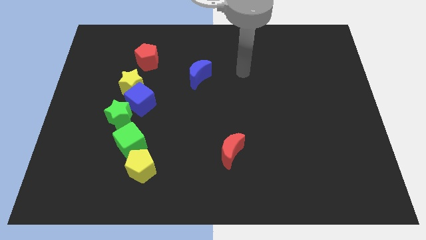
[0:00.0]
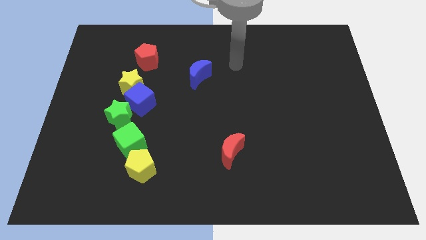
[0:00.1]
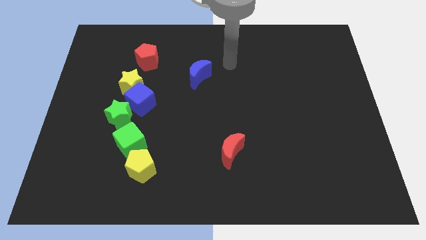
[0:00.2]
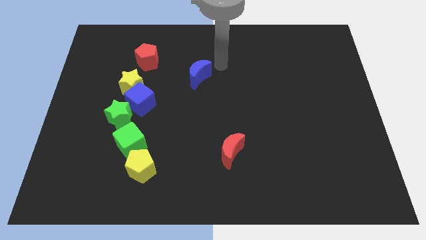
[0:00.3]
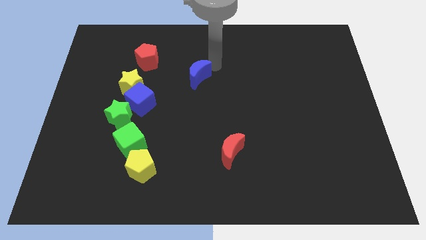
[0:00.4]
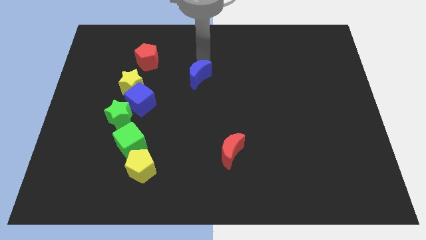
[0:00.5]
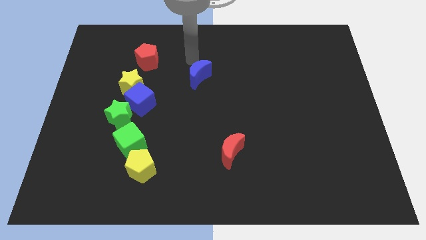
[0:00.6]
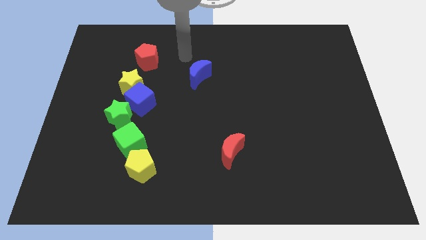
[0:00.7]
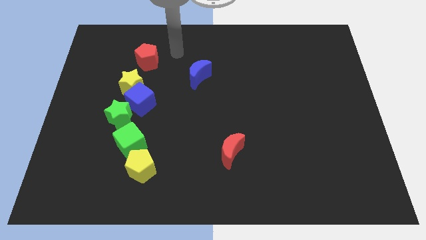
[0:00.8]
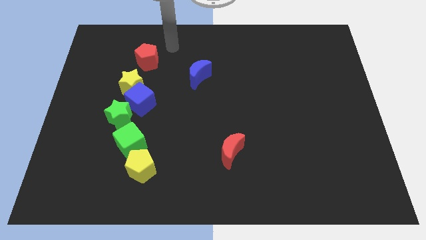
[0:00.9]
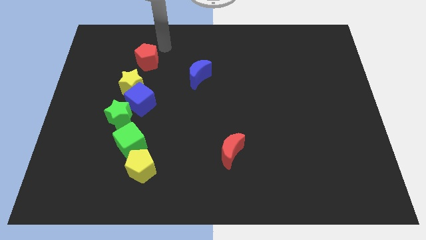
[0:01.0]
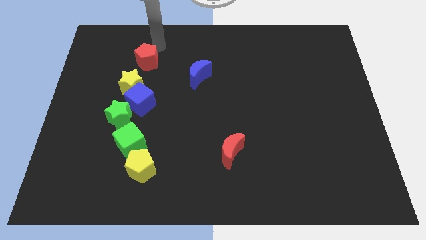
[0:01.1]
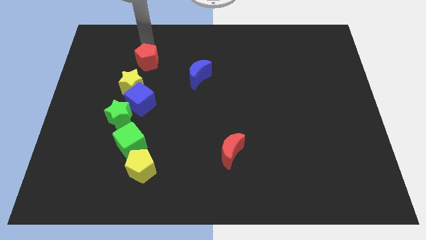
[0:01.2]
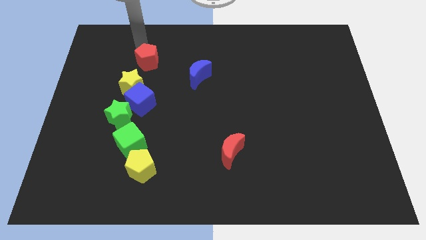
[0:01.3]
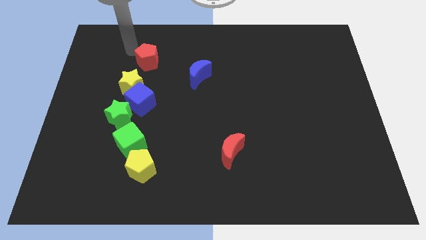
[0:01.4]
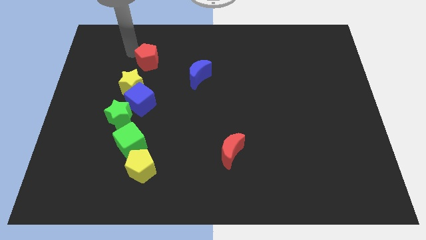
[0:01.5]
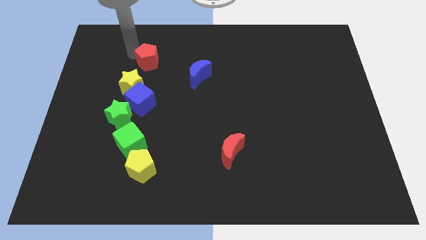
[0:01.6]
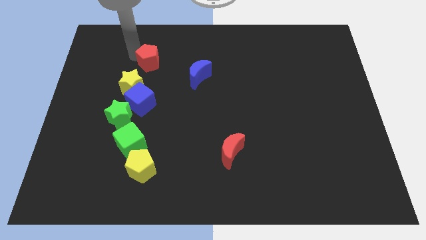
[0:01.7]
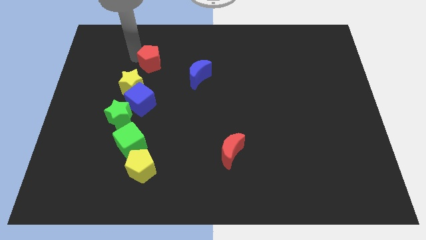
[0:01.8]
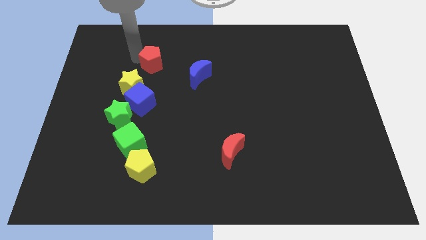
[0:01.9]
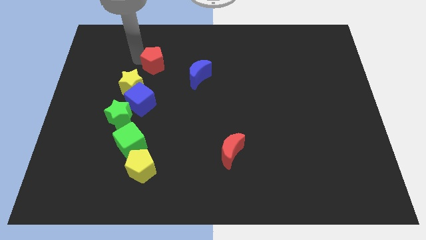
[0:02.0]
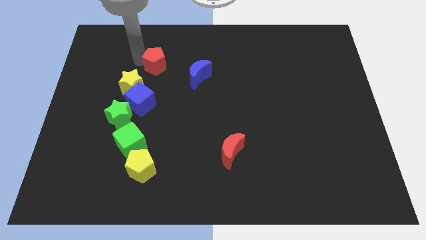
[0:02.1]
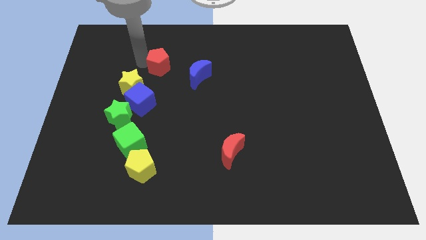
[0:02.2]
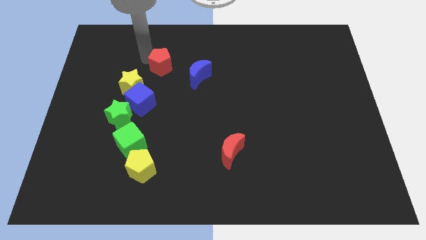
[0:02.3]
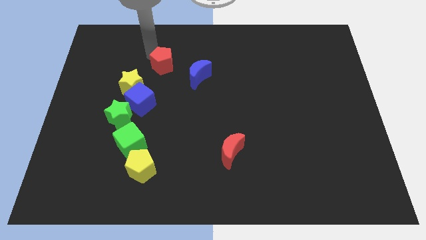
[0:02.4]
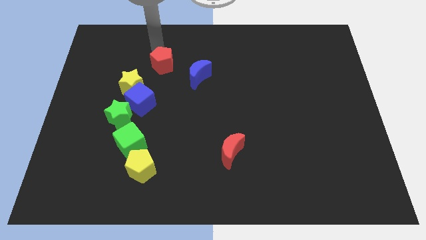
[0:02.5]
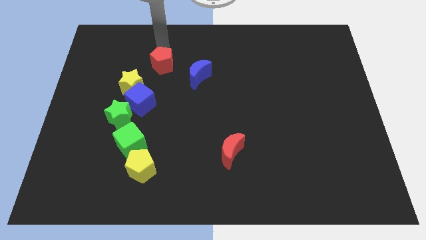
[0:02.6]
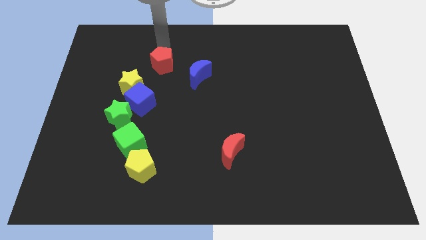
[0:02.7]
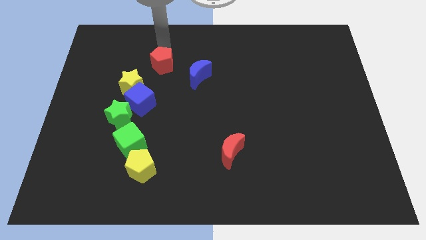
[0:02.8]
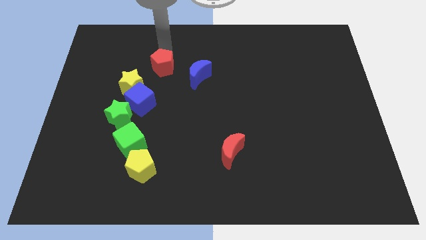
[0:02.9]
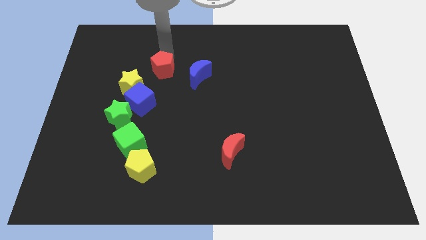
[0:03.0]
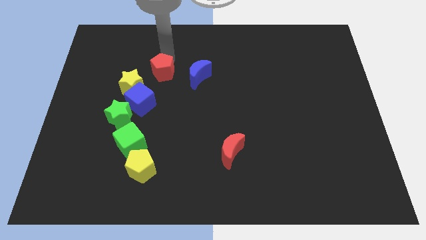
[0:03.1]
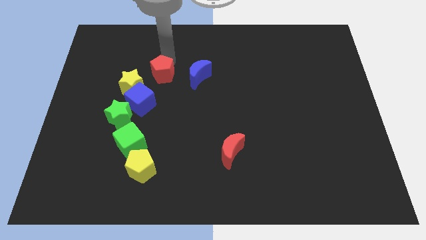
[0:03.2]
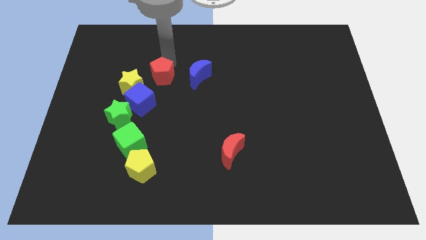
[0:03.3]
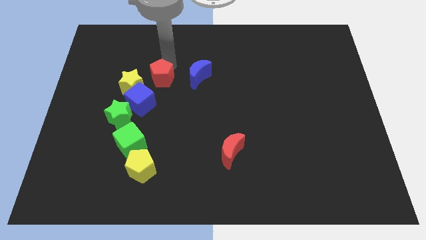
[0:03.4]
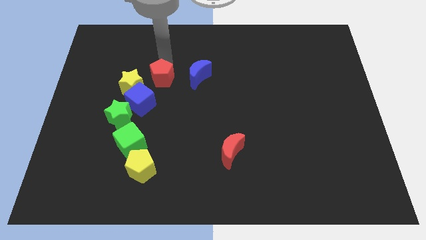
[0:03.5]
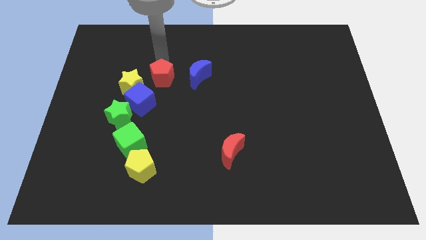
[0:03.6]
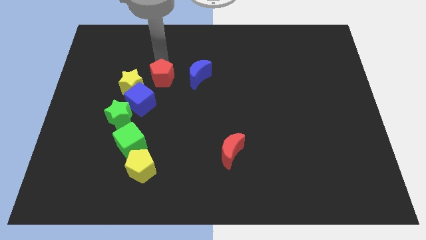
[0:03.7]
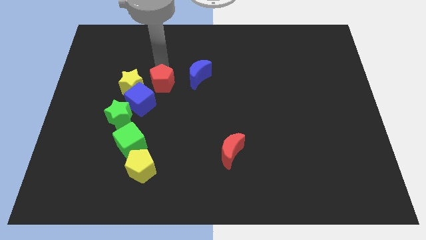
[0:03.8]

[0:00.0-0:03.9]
push the red pentagon downwards a little bit

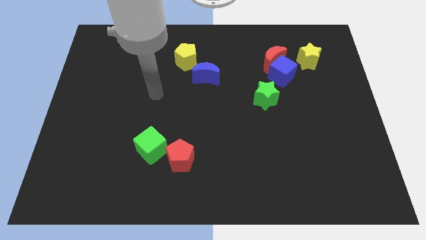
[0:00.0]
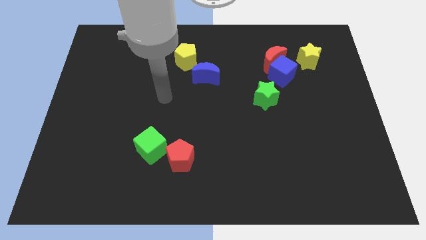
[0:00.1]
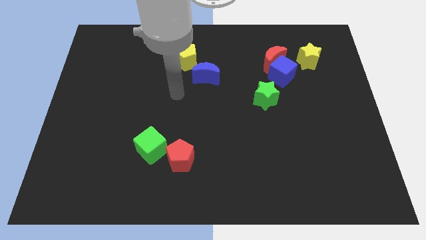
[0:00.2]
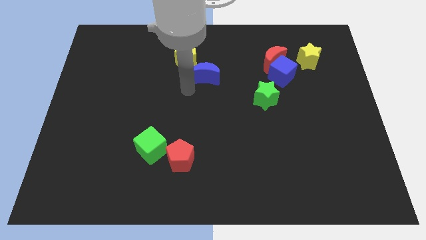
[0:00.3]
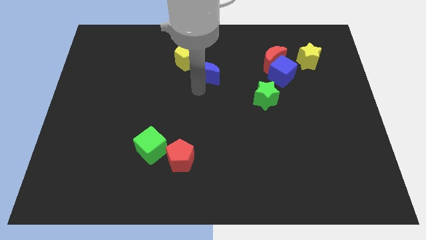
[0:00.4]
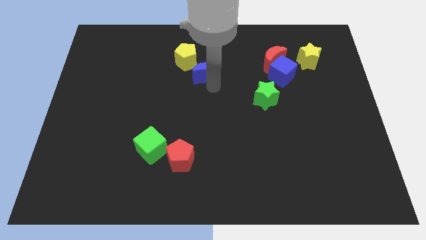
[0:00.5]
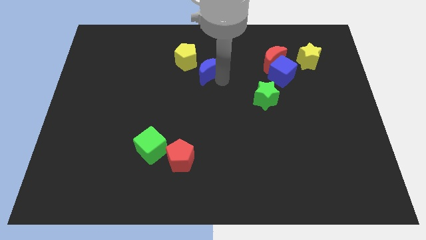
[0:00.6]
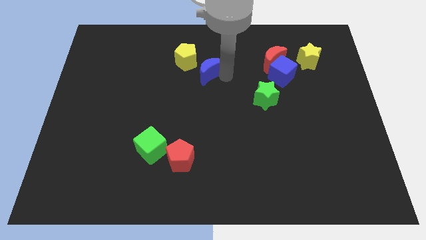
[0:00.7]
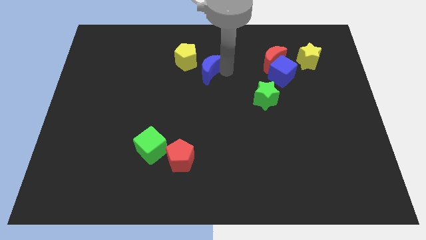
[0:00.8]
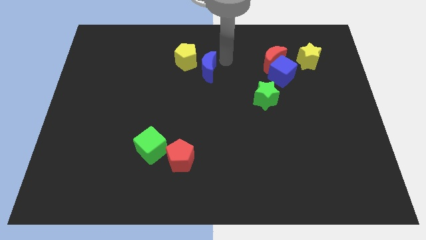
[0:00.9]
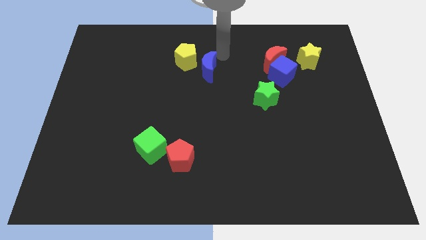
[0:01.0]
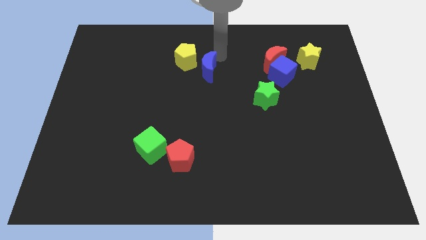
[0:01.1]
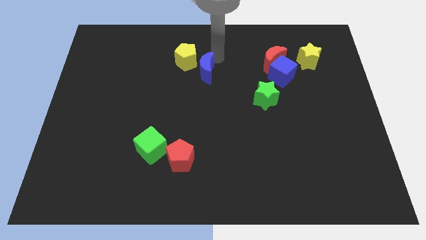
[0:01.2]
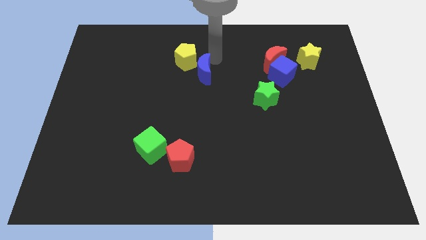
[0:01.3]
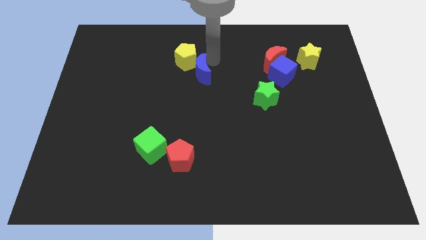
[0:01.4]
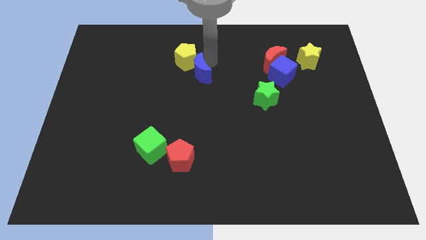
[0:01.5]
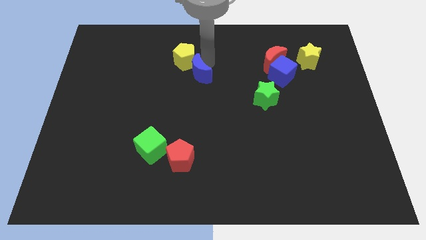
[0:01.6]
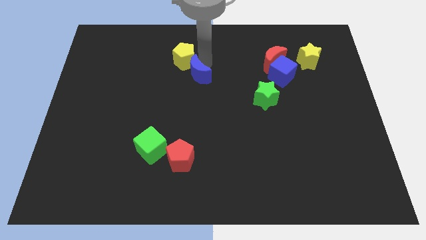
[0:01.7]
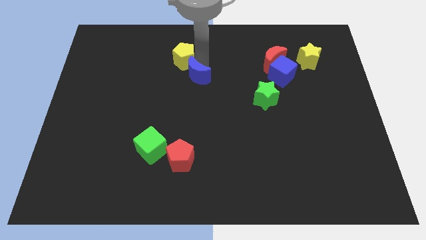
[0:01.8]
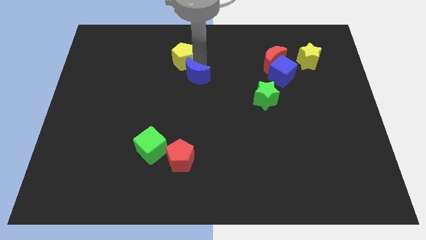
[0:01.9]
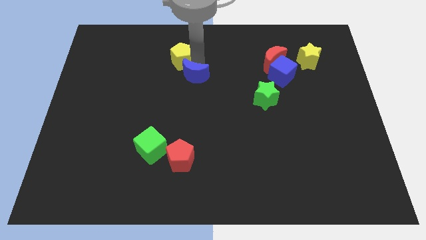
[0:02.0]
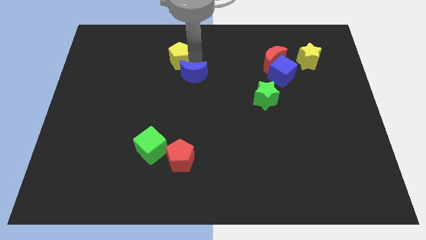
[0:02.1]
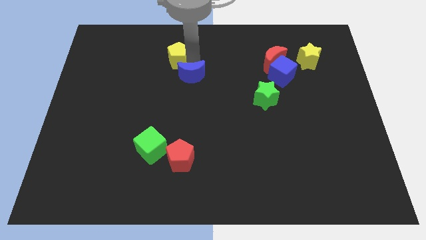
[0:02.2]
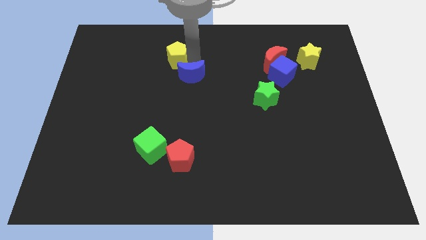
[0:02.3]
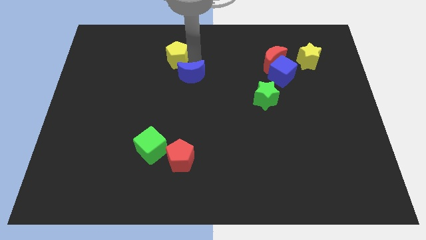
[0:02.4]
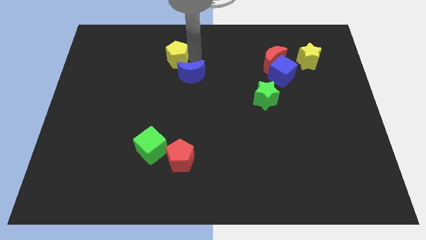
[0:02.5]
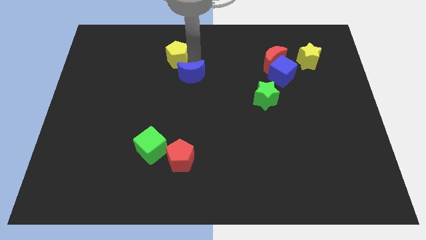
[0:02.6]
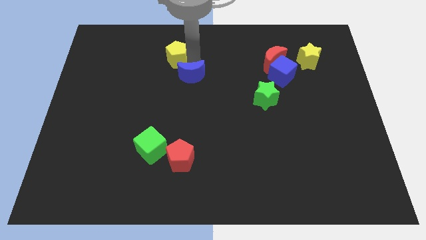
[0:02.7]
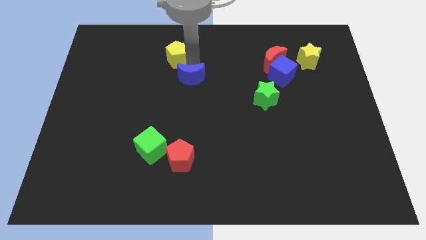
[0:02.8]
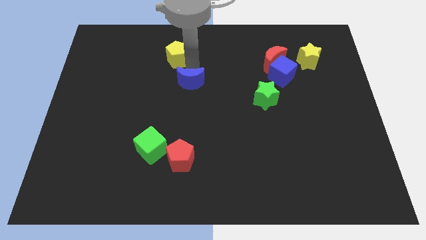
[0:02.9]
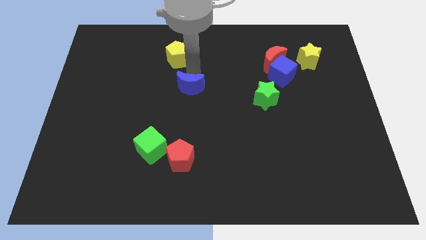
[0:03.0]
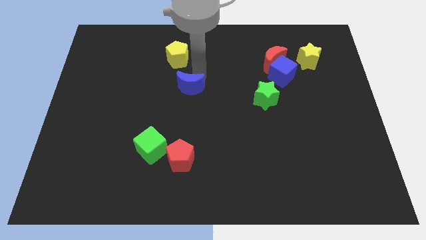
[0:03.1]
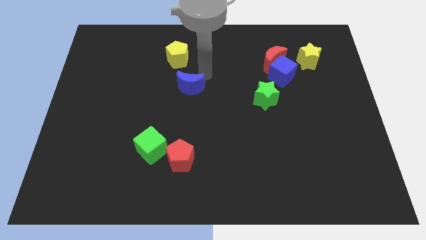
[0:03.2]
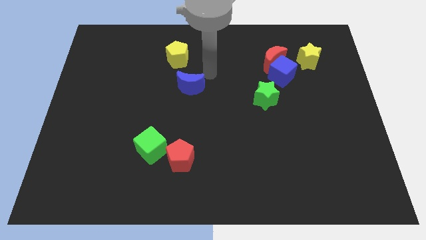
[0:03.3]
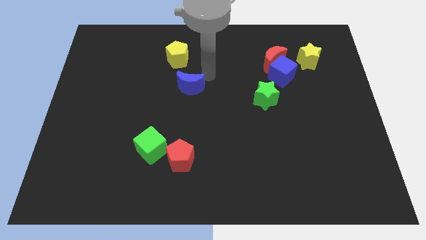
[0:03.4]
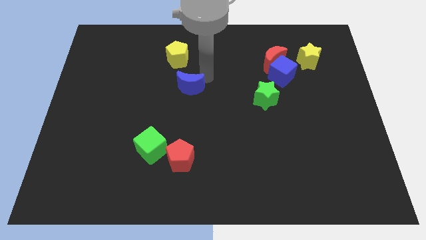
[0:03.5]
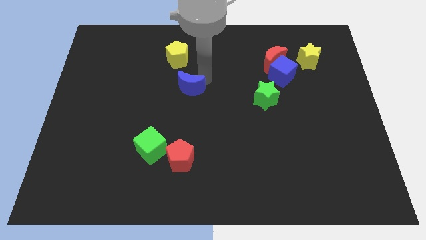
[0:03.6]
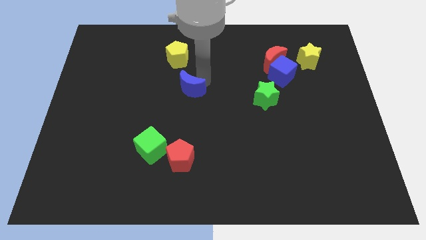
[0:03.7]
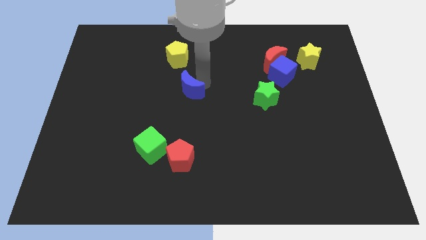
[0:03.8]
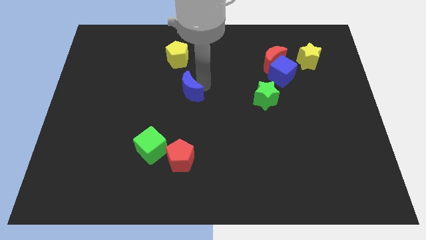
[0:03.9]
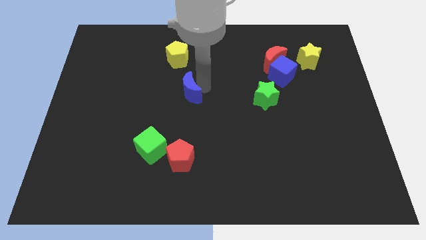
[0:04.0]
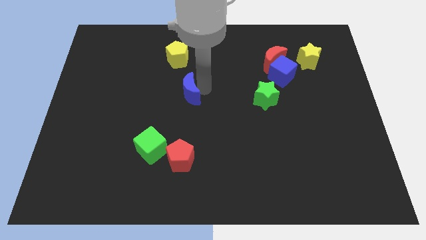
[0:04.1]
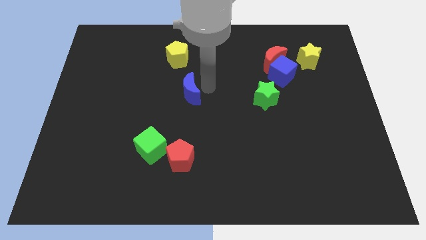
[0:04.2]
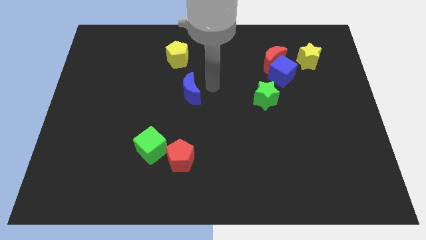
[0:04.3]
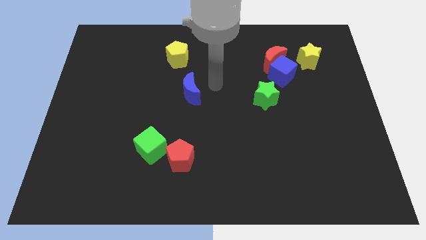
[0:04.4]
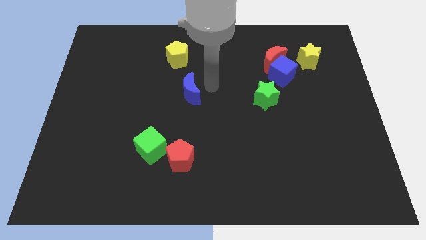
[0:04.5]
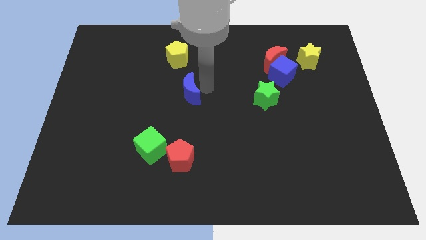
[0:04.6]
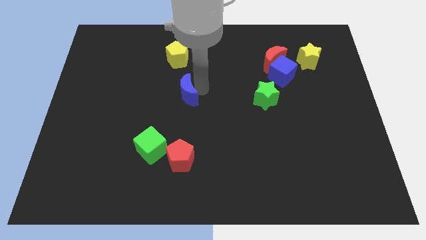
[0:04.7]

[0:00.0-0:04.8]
slightly slide the blue moon diagonally downwards and to the left

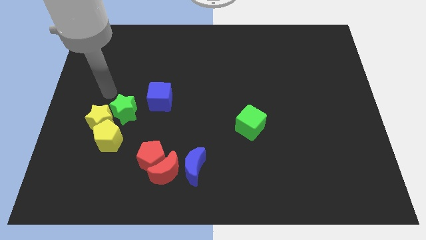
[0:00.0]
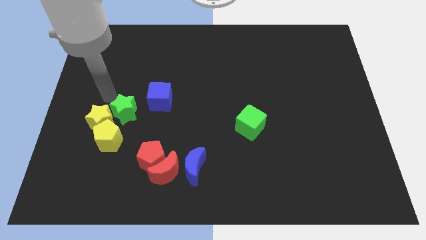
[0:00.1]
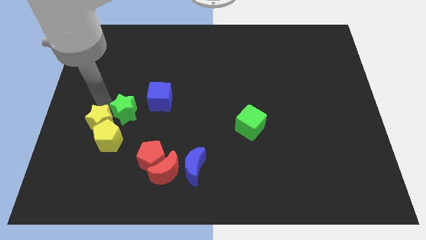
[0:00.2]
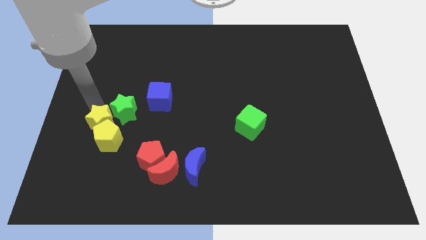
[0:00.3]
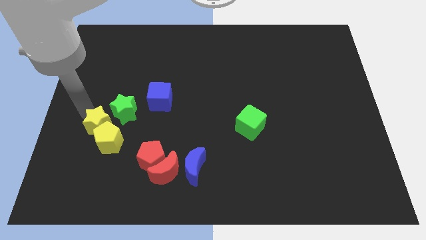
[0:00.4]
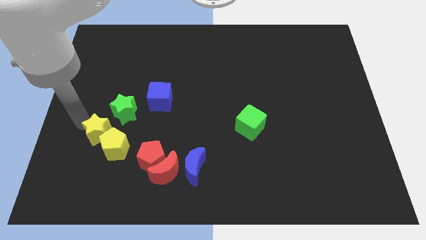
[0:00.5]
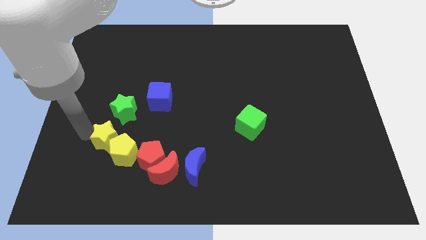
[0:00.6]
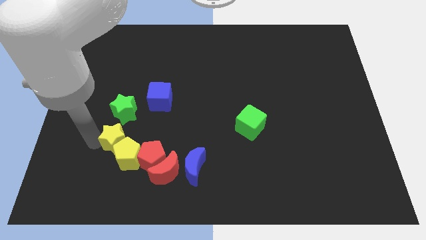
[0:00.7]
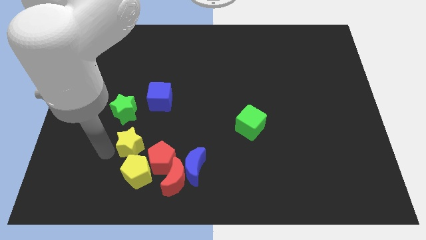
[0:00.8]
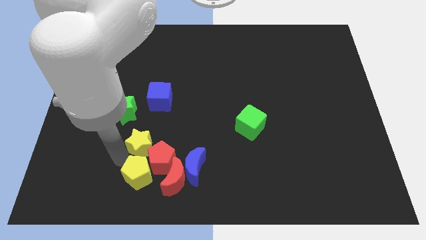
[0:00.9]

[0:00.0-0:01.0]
slightly push the yellow star right
